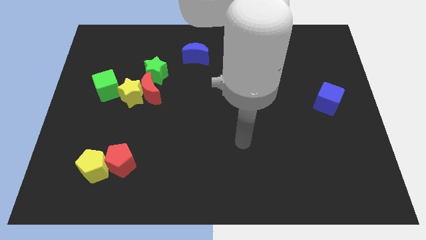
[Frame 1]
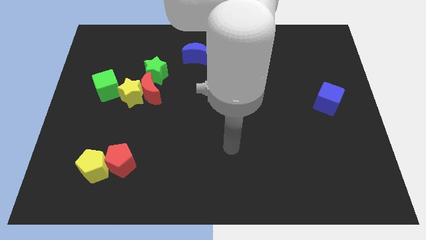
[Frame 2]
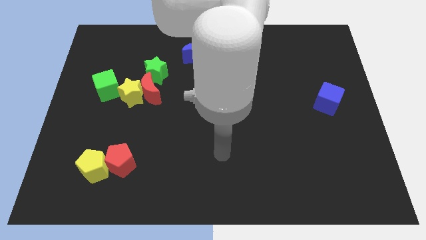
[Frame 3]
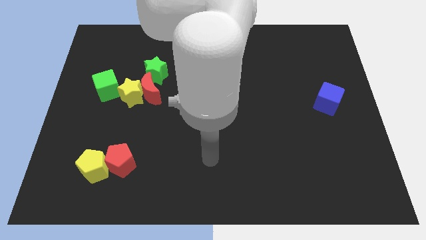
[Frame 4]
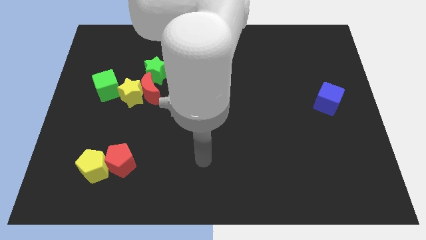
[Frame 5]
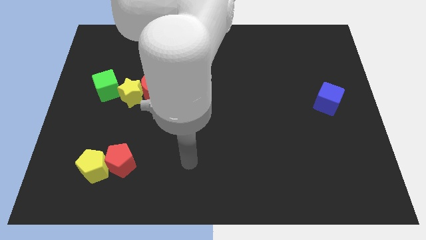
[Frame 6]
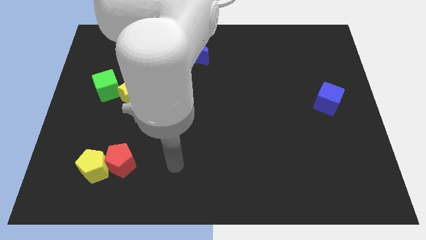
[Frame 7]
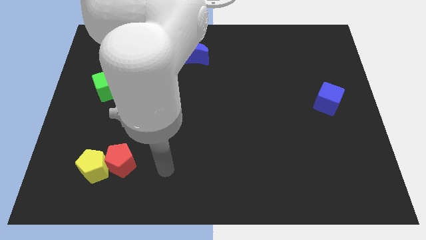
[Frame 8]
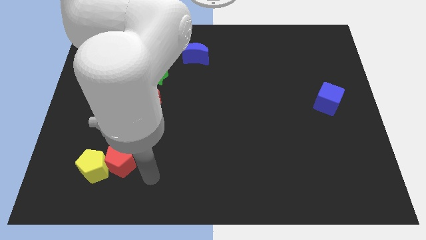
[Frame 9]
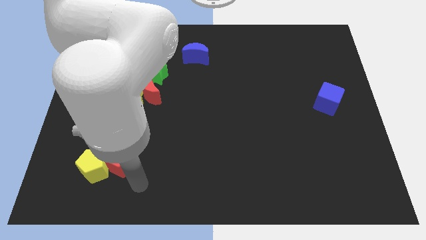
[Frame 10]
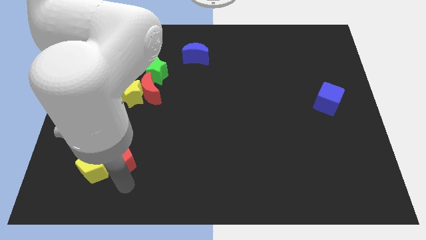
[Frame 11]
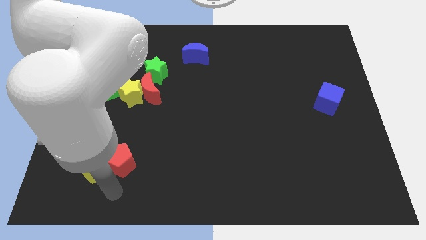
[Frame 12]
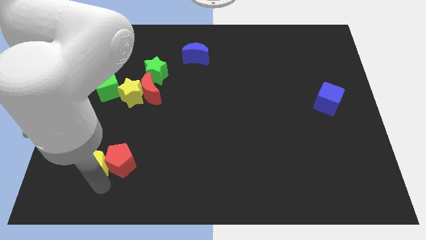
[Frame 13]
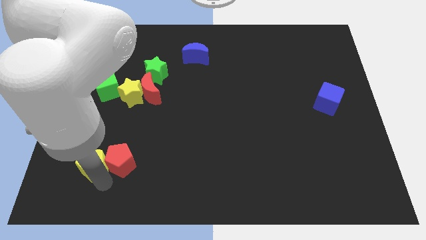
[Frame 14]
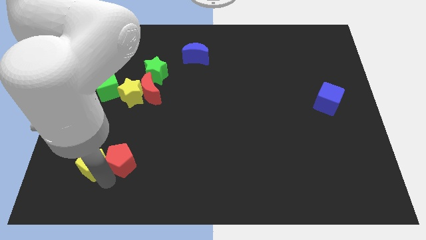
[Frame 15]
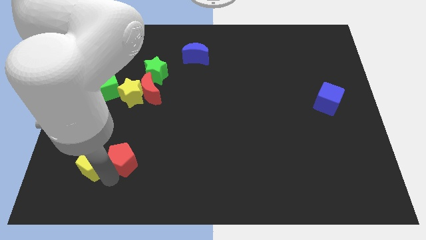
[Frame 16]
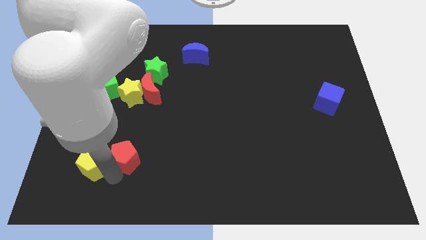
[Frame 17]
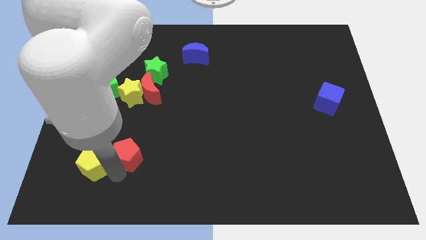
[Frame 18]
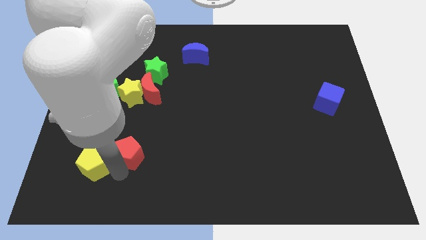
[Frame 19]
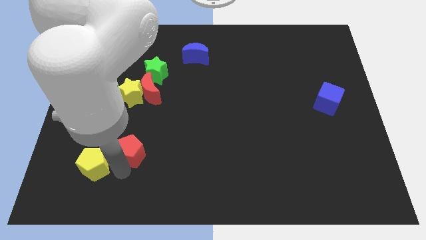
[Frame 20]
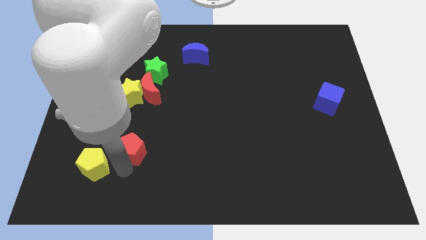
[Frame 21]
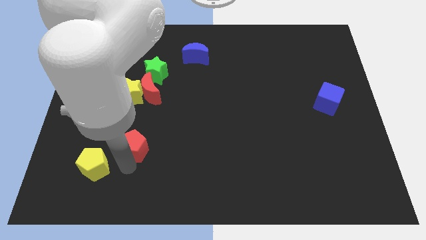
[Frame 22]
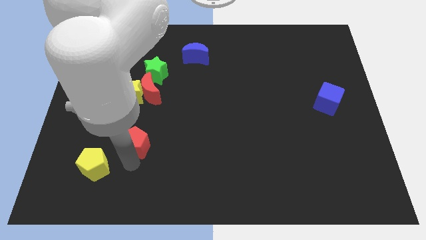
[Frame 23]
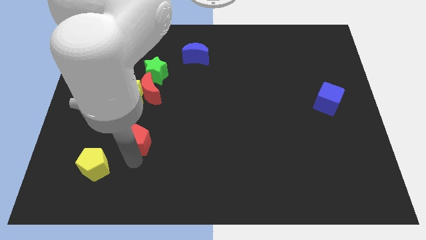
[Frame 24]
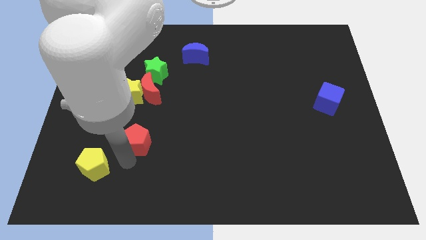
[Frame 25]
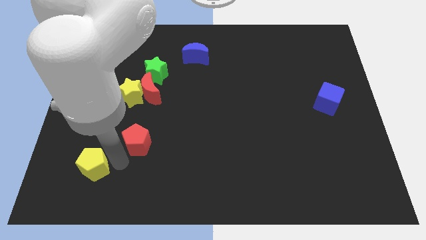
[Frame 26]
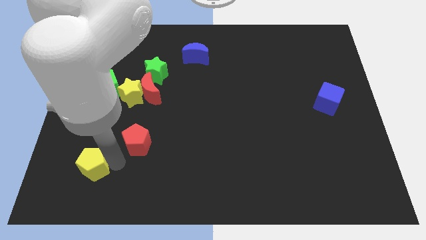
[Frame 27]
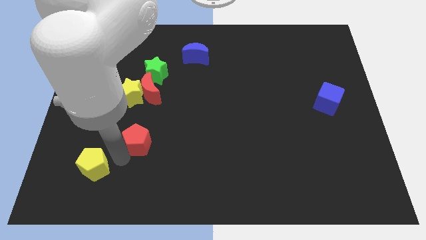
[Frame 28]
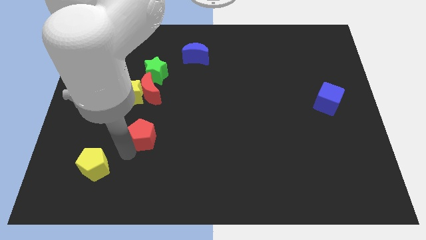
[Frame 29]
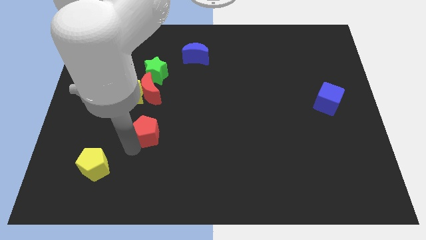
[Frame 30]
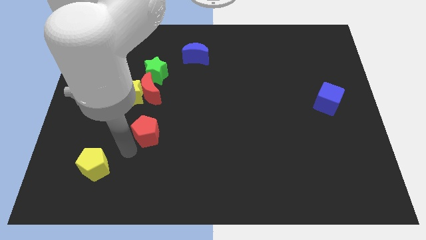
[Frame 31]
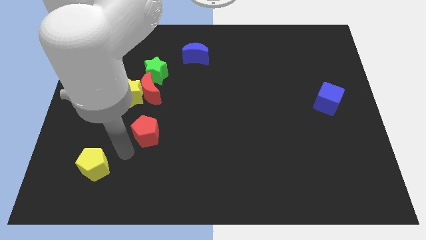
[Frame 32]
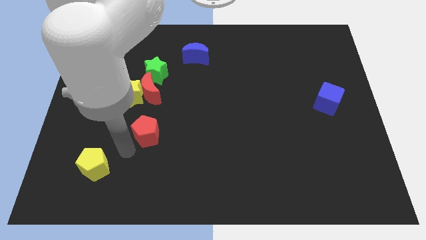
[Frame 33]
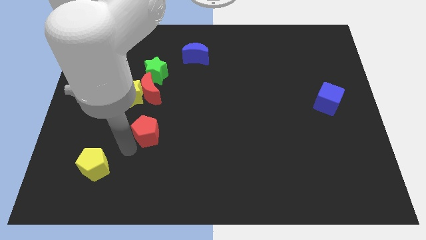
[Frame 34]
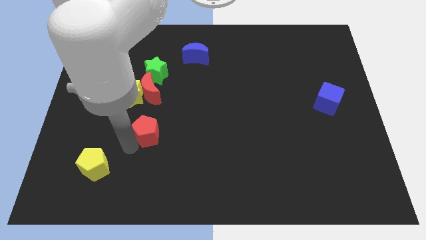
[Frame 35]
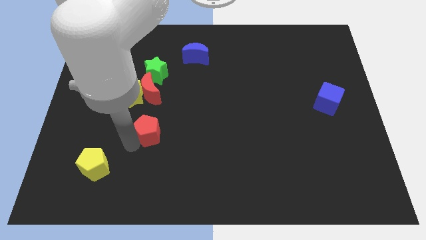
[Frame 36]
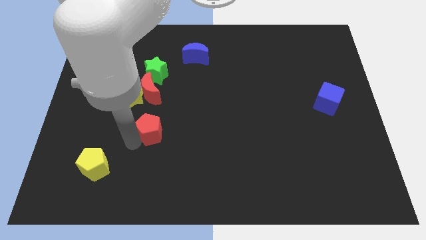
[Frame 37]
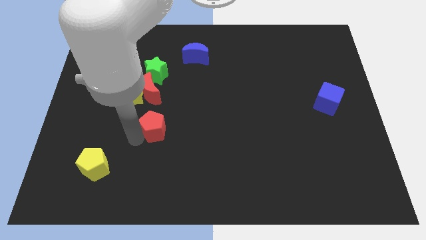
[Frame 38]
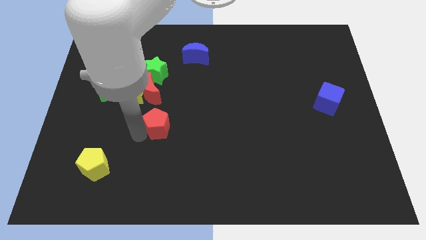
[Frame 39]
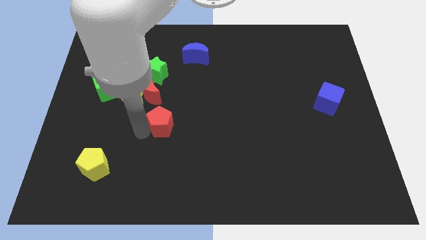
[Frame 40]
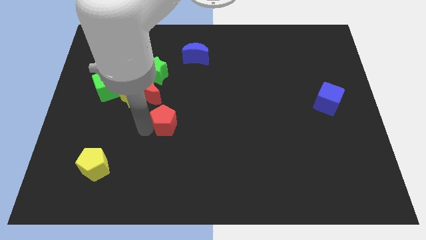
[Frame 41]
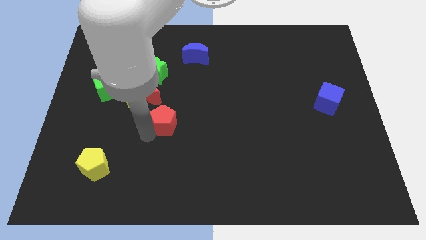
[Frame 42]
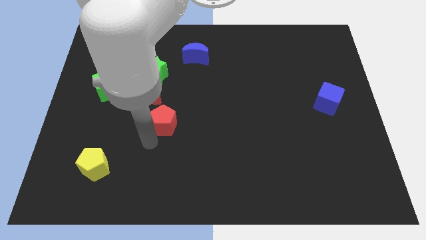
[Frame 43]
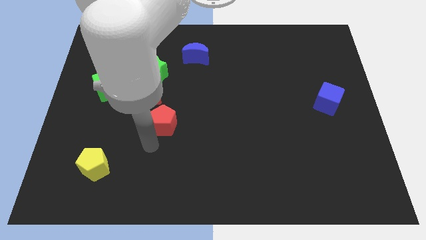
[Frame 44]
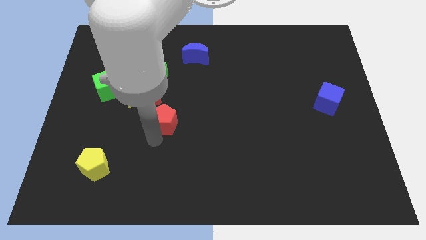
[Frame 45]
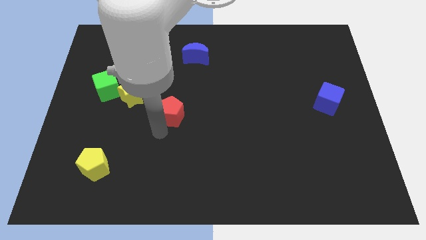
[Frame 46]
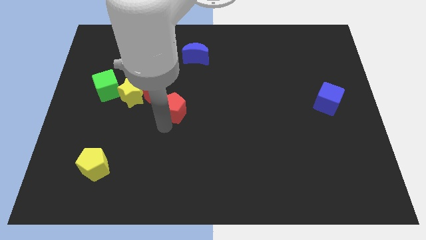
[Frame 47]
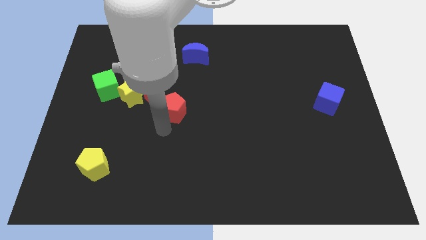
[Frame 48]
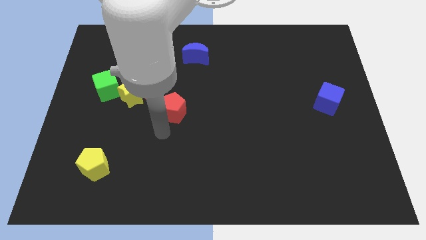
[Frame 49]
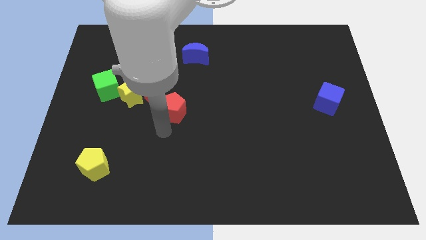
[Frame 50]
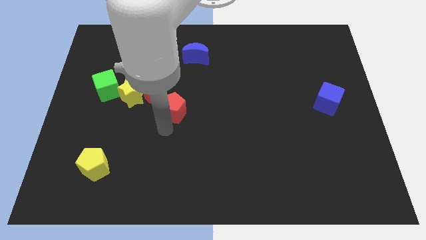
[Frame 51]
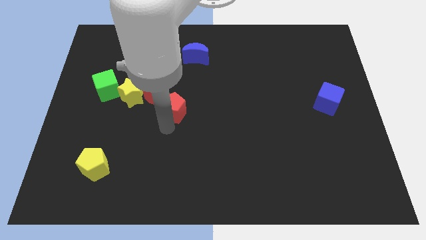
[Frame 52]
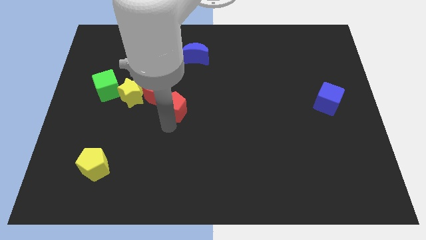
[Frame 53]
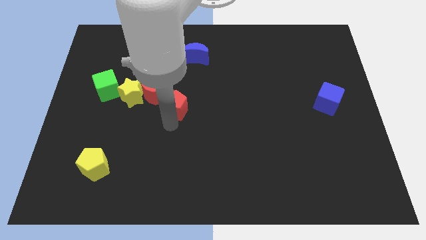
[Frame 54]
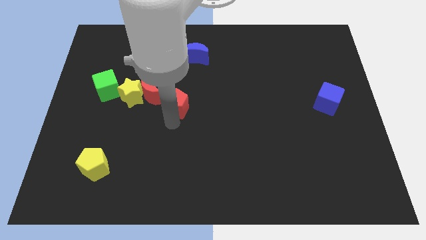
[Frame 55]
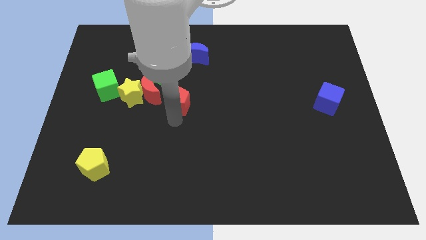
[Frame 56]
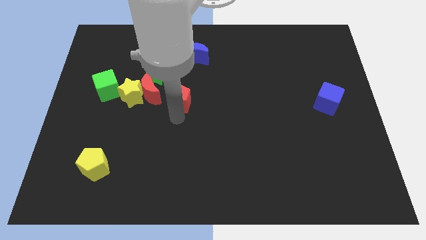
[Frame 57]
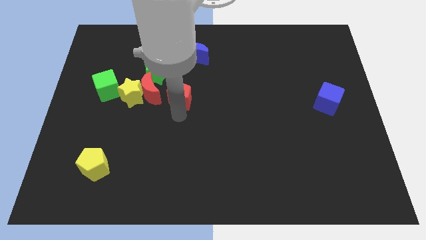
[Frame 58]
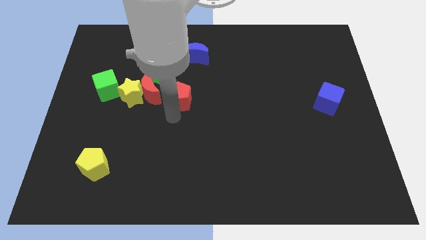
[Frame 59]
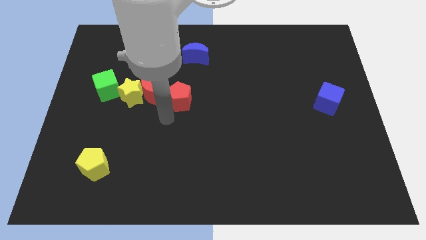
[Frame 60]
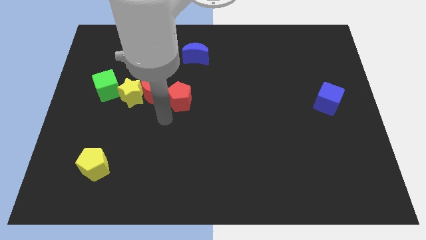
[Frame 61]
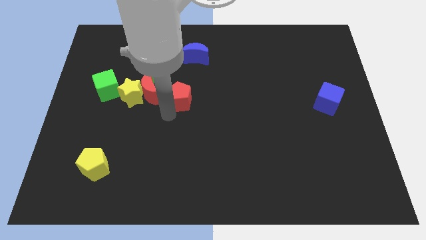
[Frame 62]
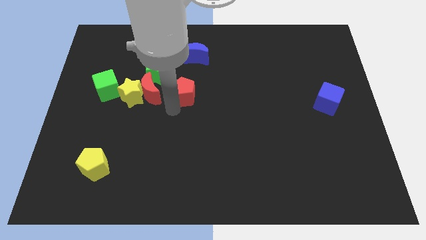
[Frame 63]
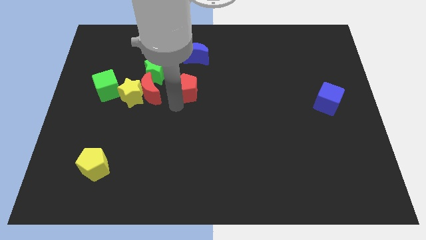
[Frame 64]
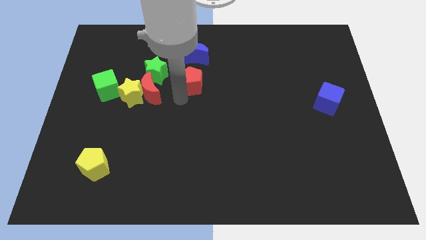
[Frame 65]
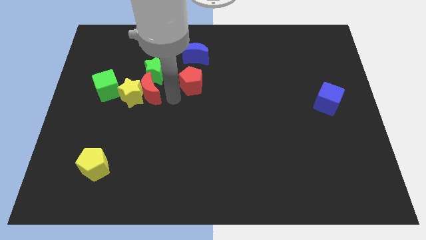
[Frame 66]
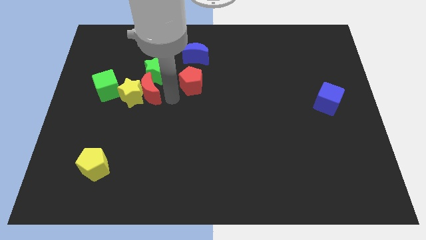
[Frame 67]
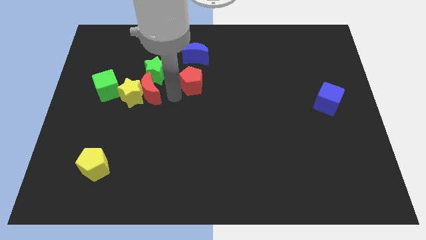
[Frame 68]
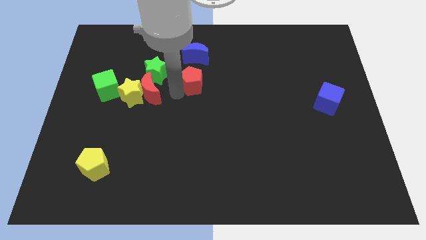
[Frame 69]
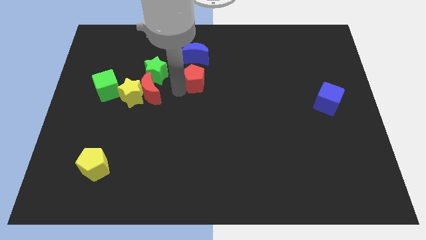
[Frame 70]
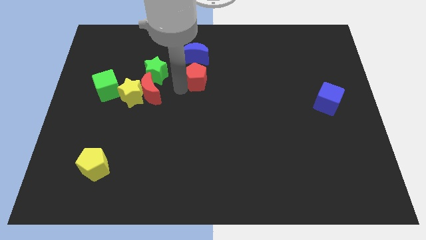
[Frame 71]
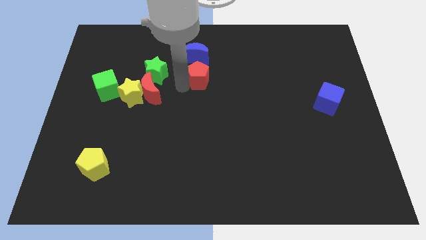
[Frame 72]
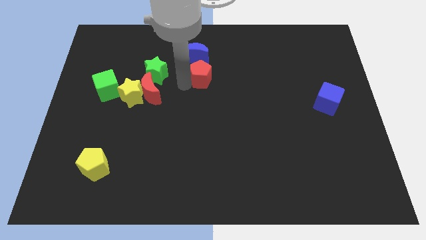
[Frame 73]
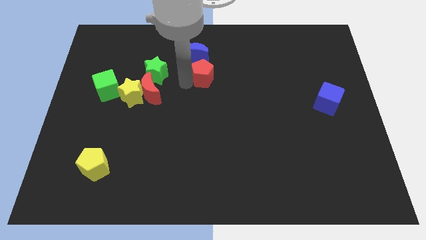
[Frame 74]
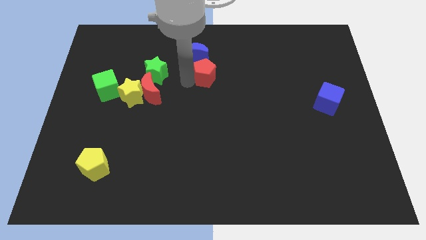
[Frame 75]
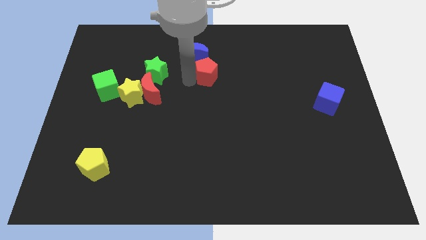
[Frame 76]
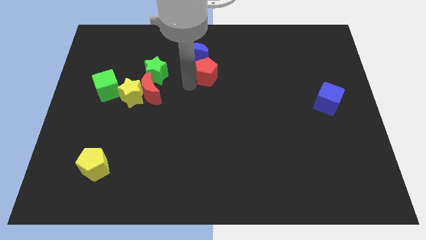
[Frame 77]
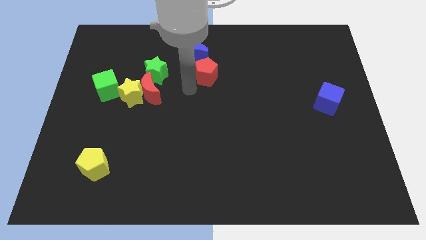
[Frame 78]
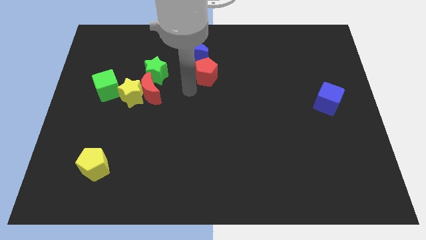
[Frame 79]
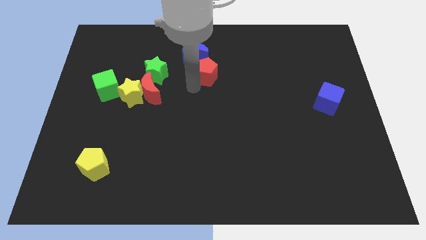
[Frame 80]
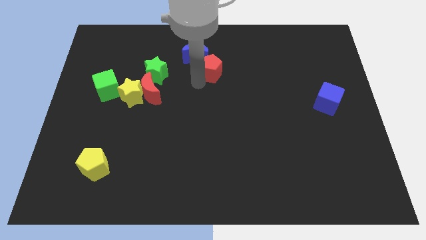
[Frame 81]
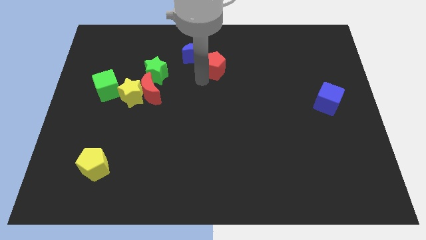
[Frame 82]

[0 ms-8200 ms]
push the red pentagon just right of the blue moon

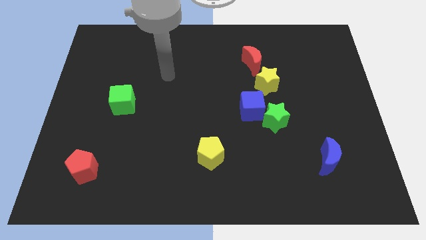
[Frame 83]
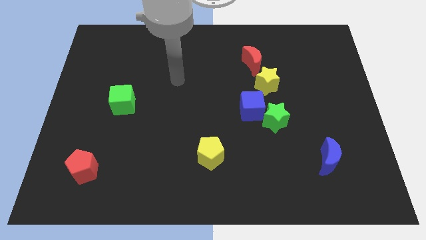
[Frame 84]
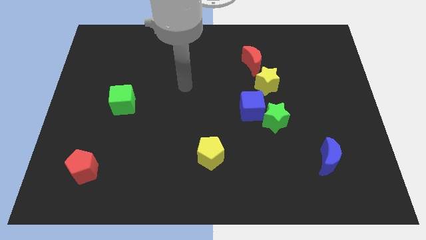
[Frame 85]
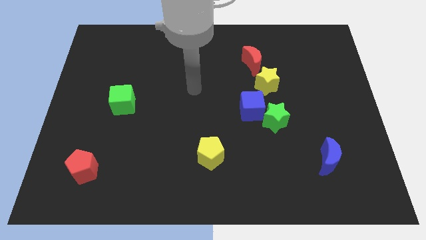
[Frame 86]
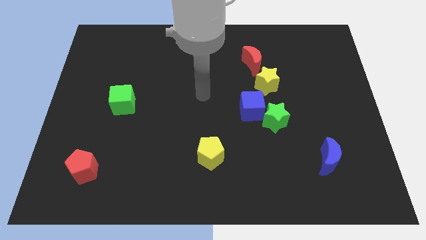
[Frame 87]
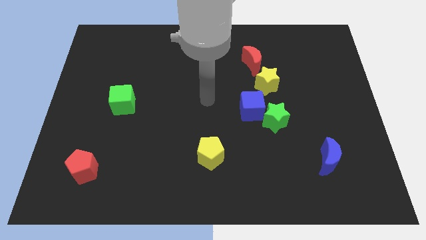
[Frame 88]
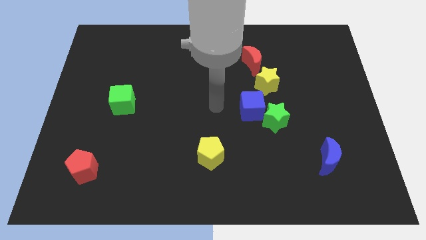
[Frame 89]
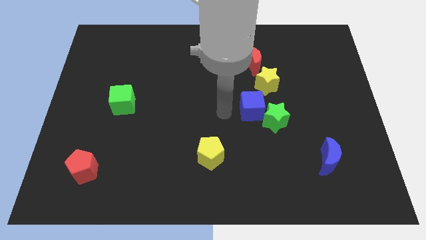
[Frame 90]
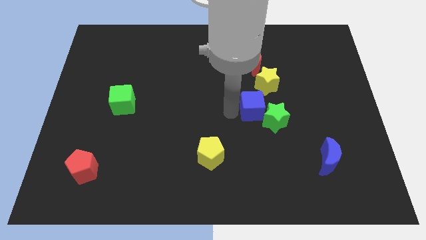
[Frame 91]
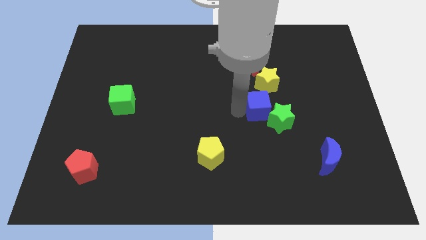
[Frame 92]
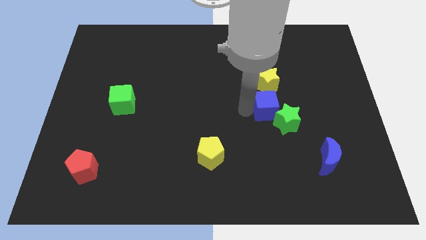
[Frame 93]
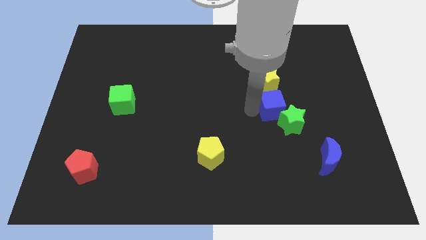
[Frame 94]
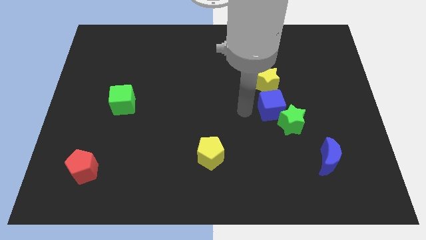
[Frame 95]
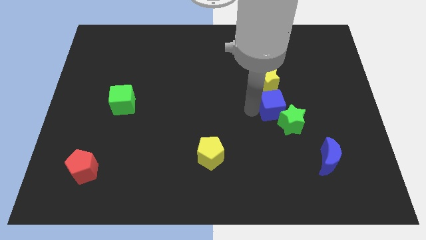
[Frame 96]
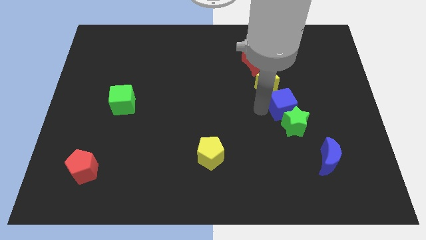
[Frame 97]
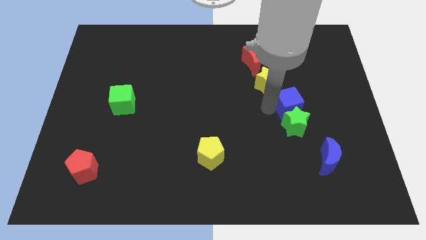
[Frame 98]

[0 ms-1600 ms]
slide the blue cube to the top right side of the green star
